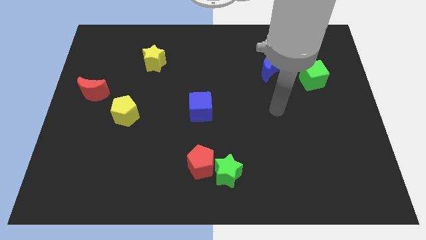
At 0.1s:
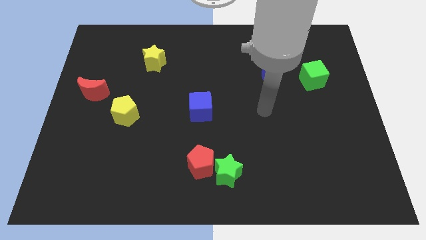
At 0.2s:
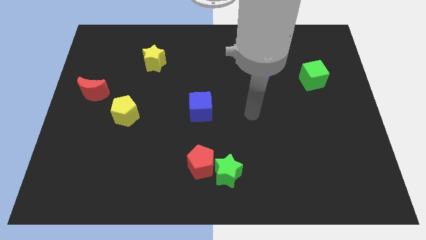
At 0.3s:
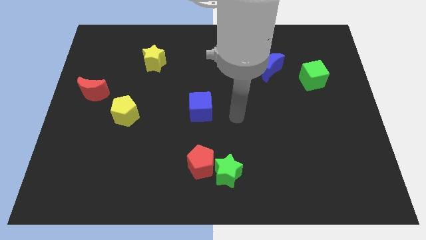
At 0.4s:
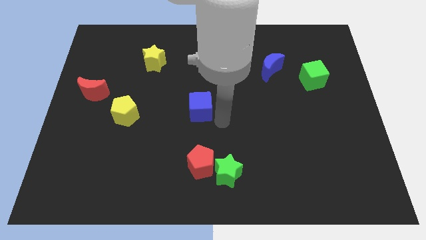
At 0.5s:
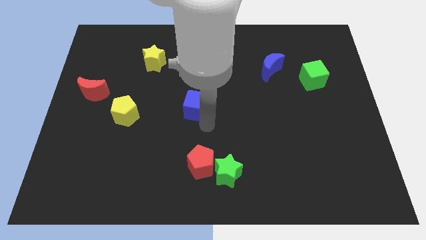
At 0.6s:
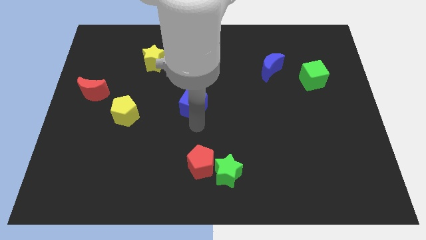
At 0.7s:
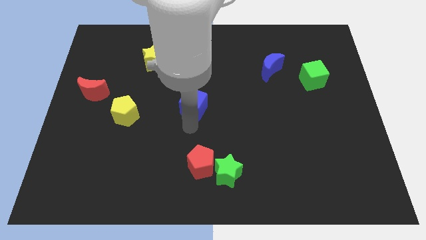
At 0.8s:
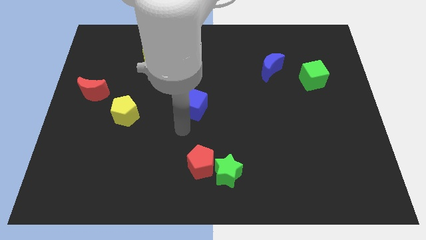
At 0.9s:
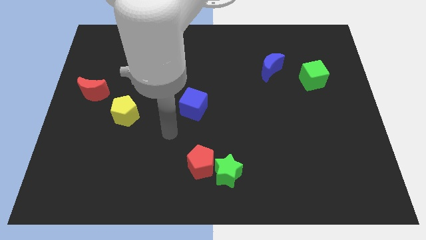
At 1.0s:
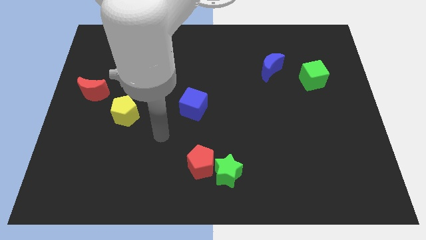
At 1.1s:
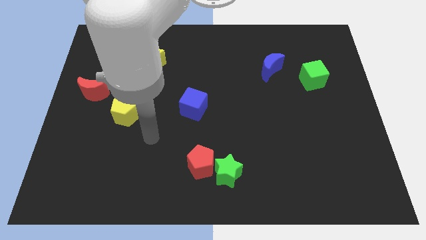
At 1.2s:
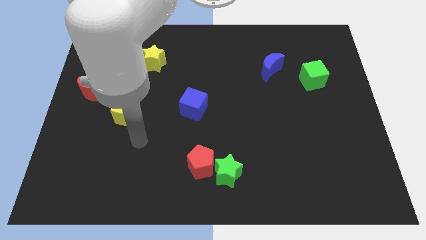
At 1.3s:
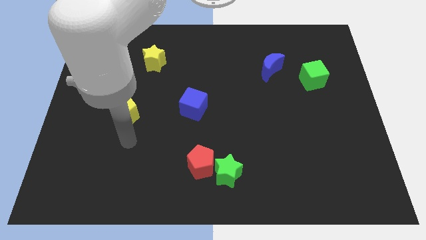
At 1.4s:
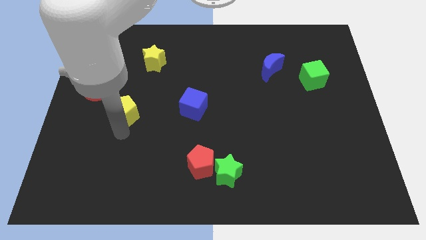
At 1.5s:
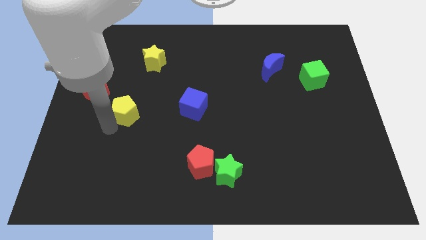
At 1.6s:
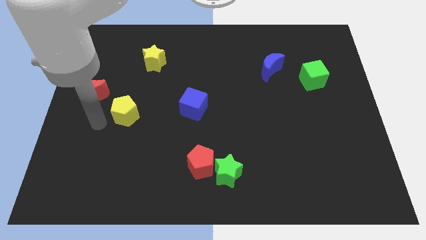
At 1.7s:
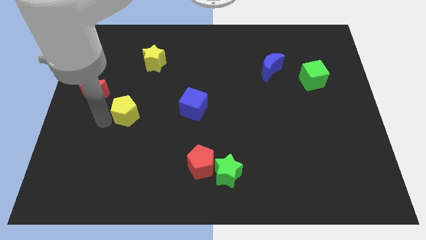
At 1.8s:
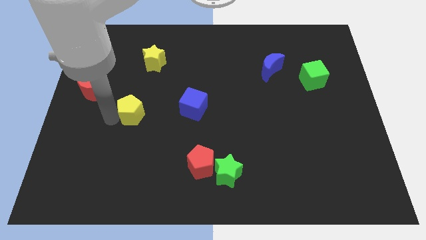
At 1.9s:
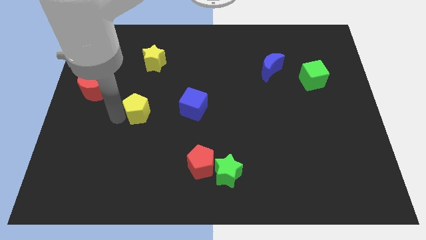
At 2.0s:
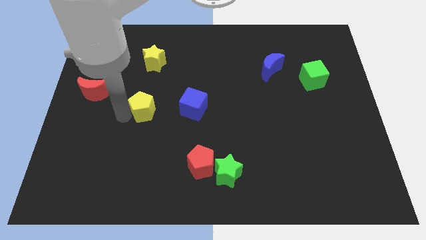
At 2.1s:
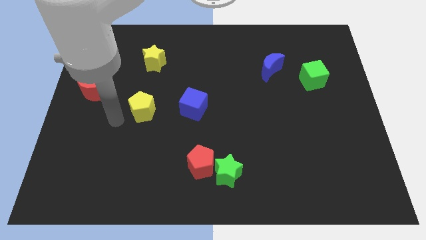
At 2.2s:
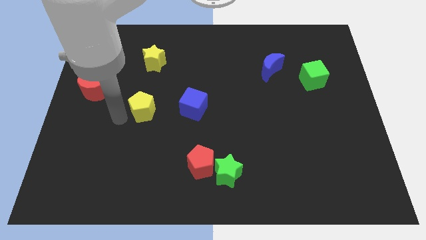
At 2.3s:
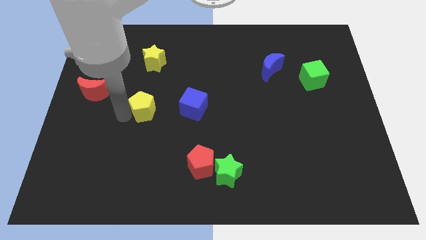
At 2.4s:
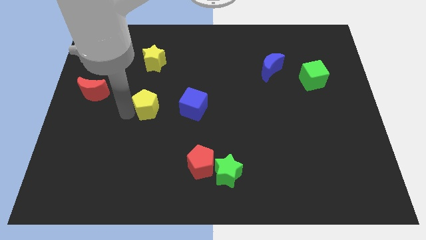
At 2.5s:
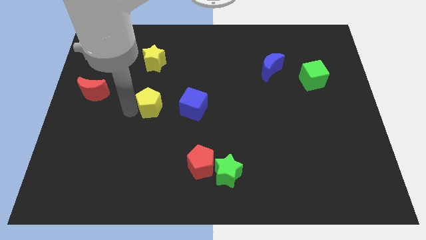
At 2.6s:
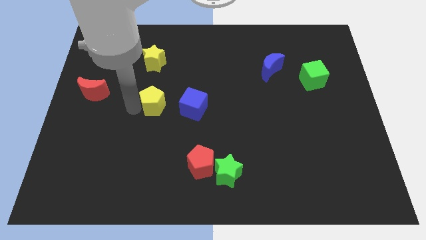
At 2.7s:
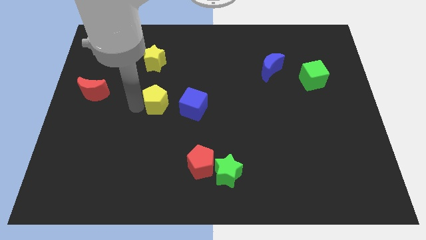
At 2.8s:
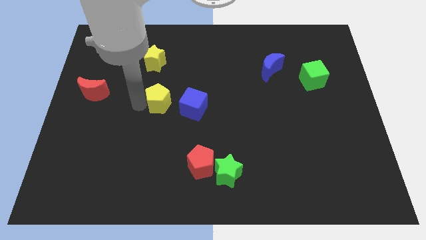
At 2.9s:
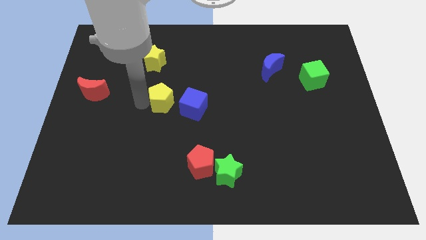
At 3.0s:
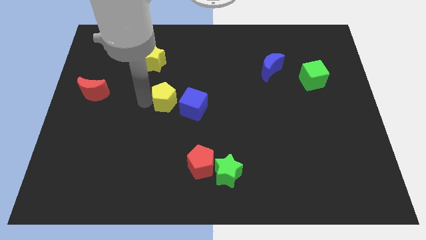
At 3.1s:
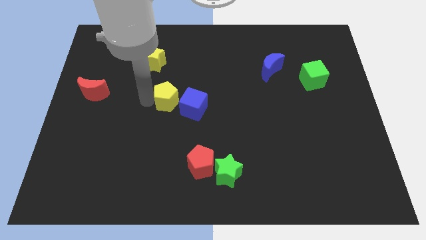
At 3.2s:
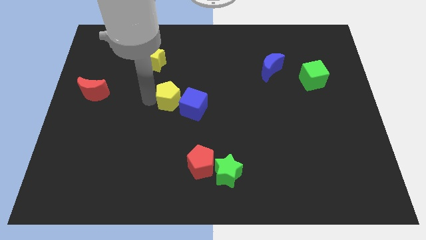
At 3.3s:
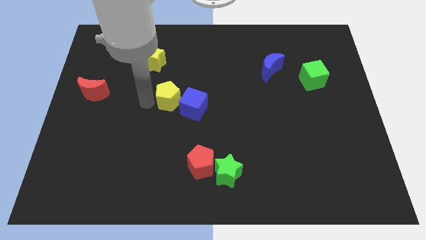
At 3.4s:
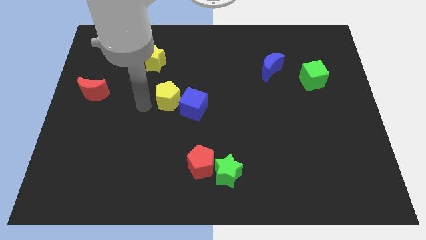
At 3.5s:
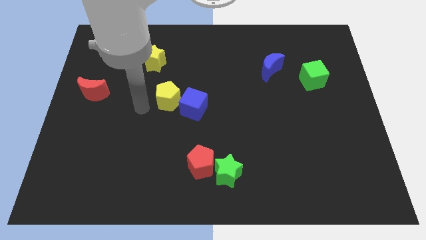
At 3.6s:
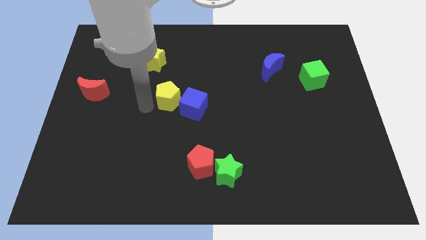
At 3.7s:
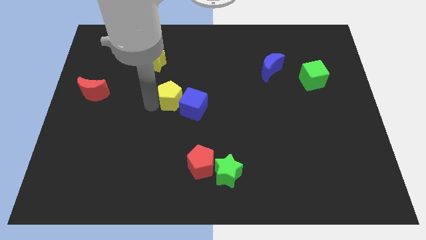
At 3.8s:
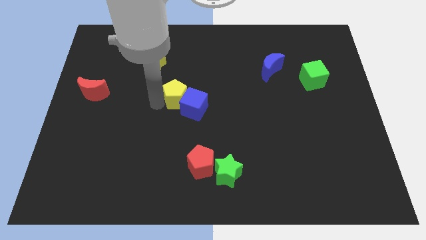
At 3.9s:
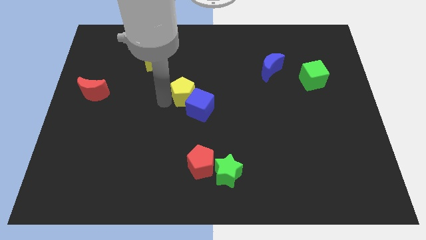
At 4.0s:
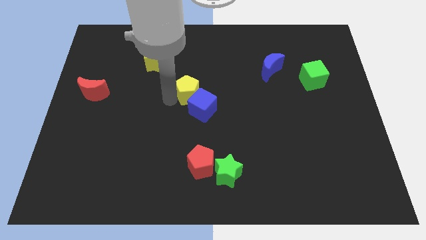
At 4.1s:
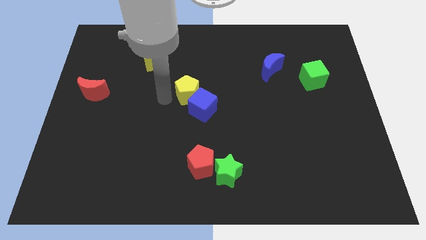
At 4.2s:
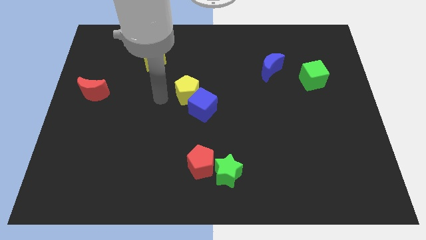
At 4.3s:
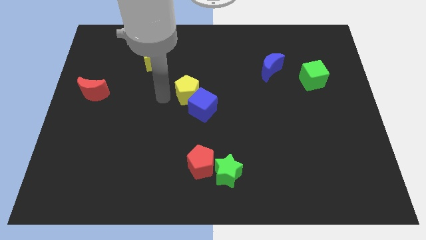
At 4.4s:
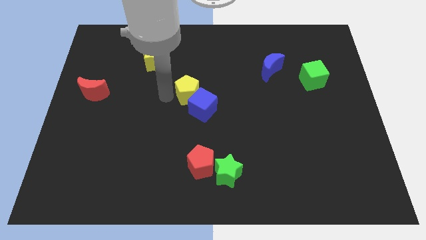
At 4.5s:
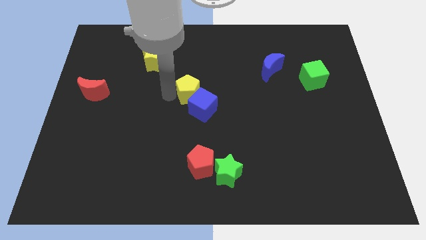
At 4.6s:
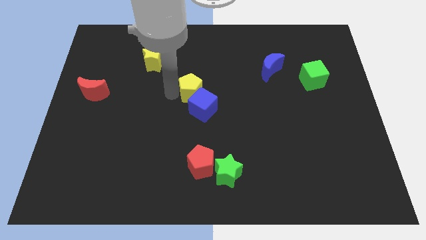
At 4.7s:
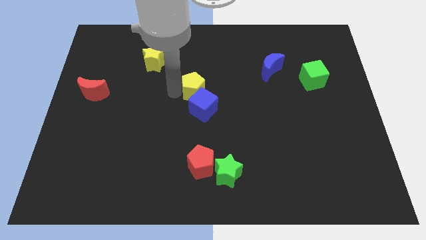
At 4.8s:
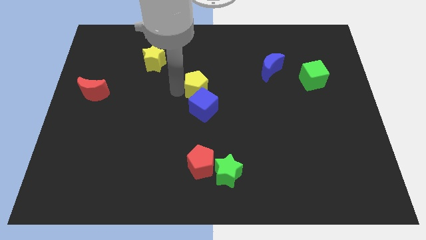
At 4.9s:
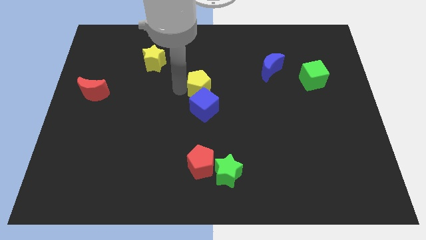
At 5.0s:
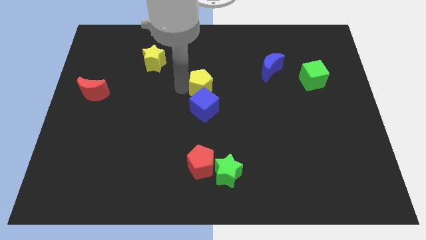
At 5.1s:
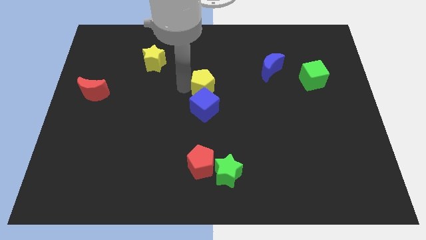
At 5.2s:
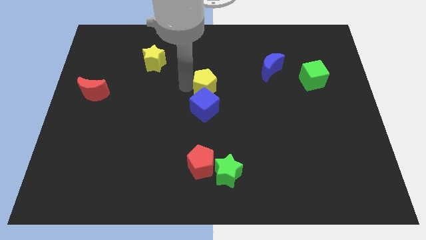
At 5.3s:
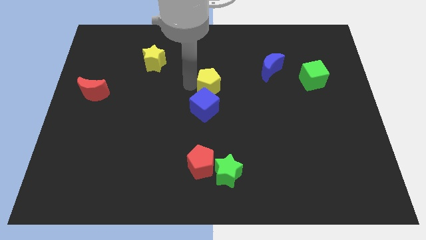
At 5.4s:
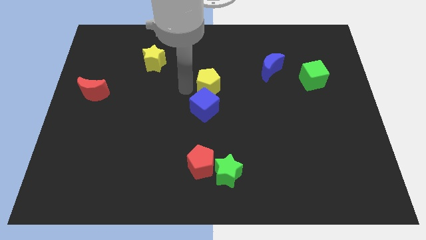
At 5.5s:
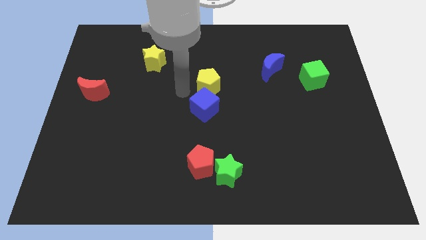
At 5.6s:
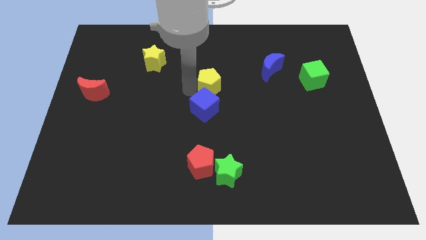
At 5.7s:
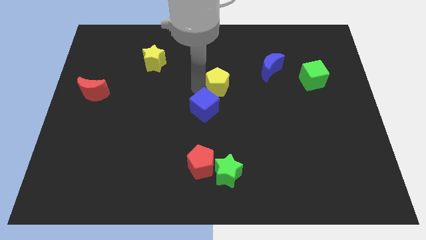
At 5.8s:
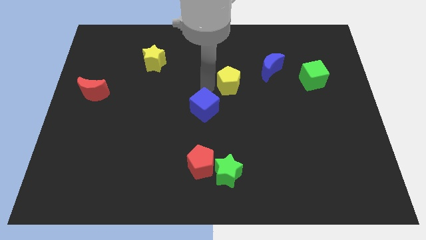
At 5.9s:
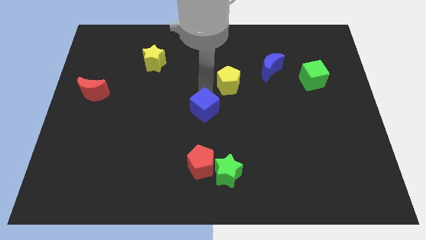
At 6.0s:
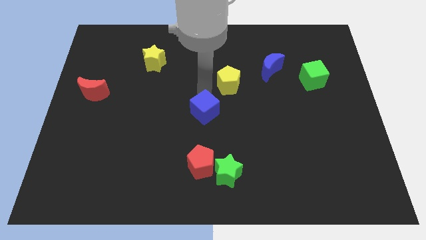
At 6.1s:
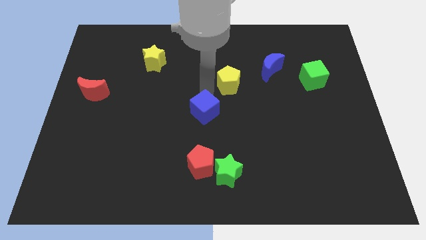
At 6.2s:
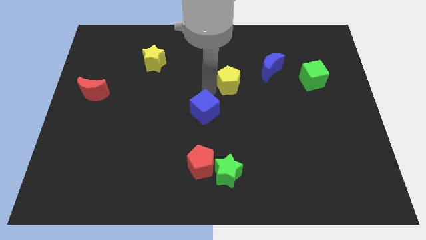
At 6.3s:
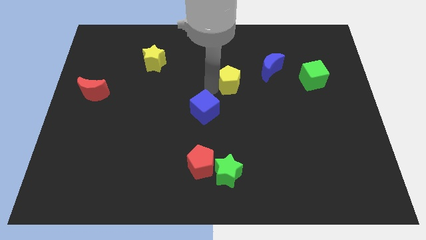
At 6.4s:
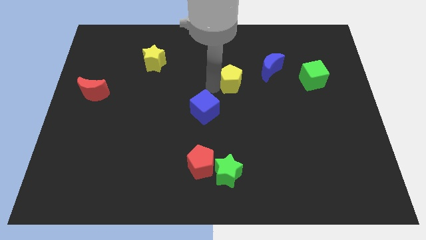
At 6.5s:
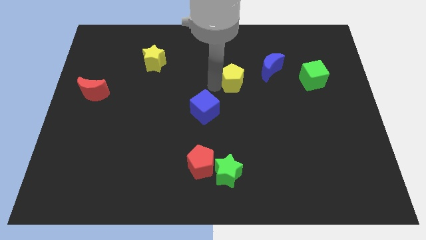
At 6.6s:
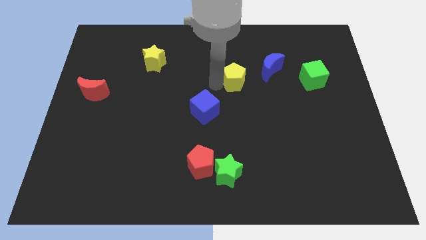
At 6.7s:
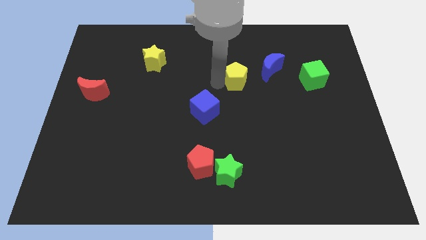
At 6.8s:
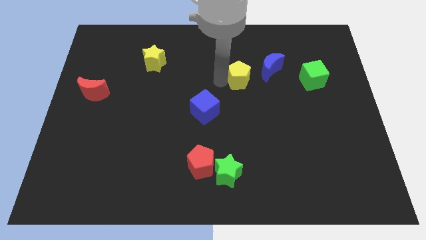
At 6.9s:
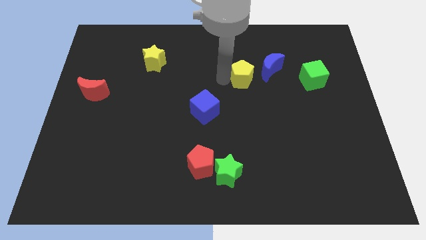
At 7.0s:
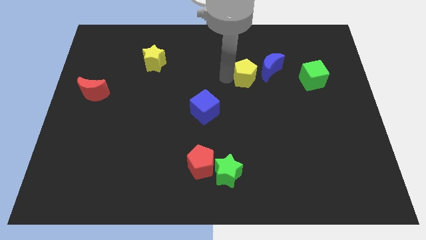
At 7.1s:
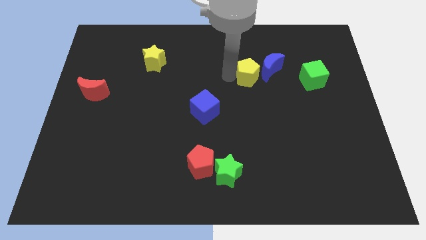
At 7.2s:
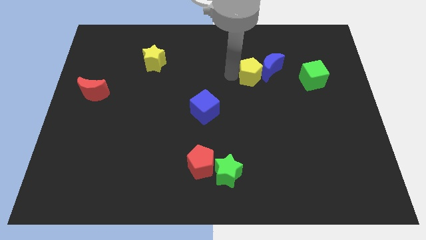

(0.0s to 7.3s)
slide the yellow pentagon towards the blue moon

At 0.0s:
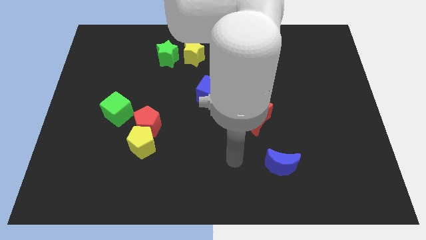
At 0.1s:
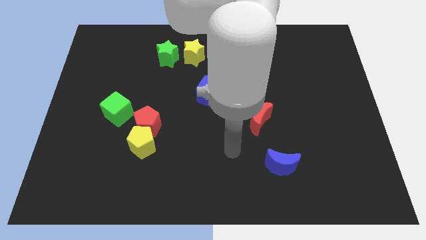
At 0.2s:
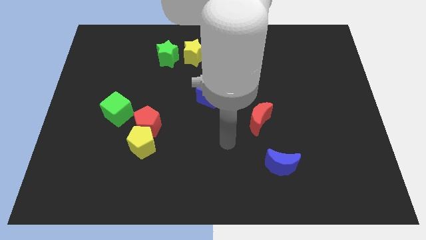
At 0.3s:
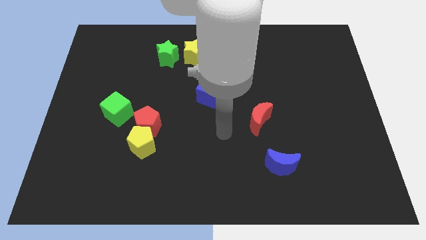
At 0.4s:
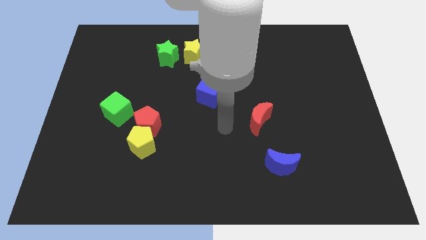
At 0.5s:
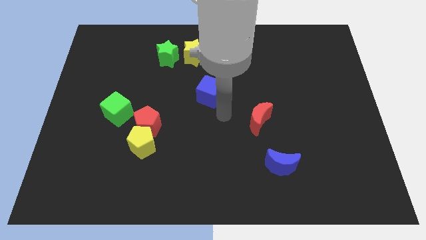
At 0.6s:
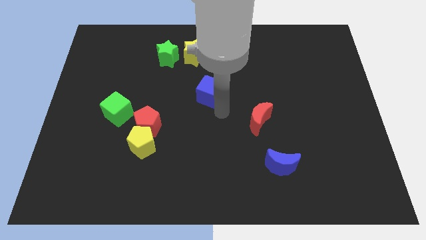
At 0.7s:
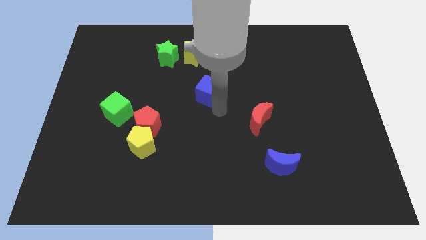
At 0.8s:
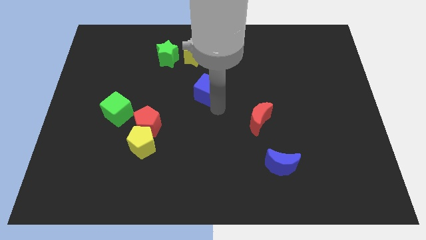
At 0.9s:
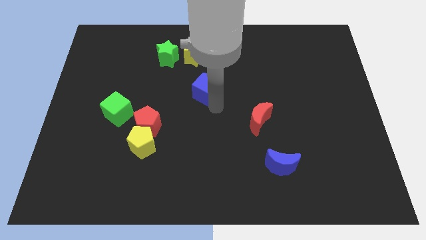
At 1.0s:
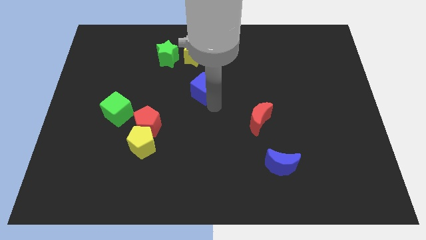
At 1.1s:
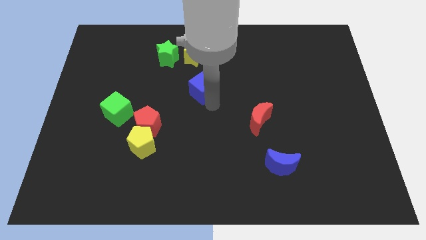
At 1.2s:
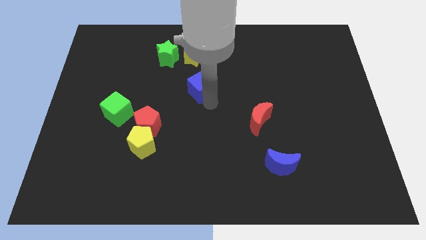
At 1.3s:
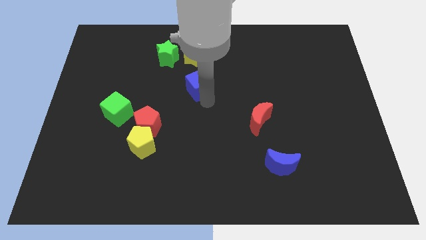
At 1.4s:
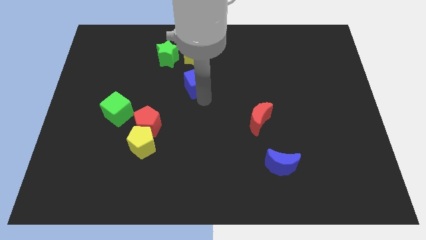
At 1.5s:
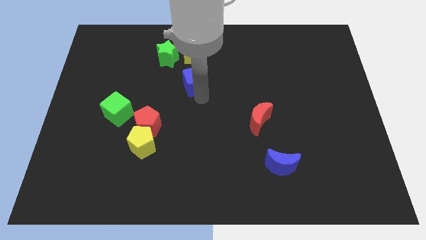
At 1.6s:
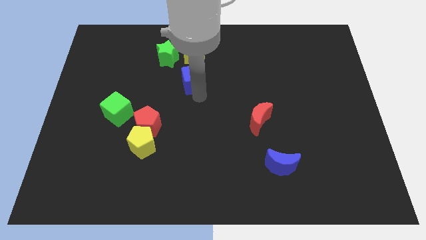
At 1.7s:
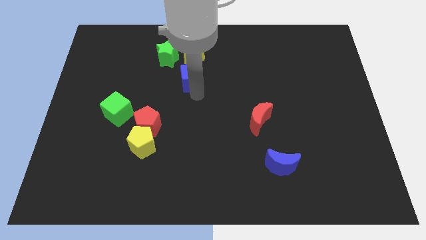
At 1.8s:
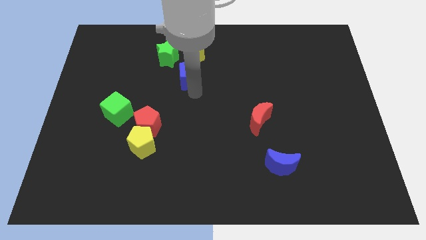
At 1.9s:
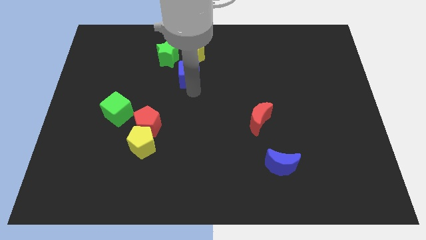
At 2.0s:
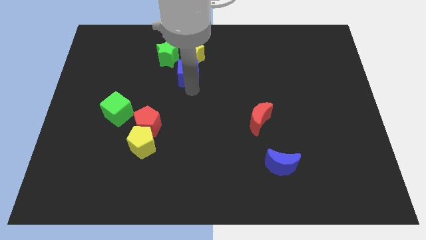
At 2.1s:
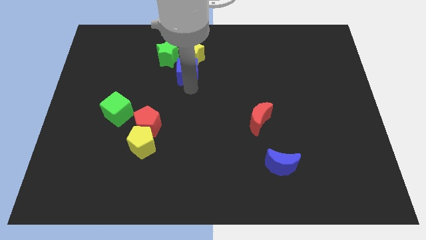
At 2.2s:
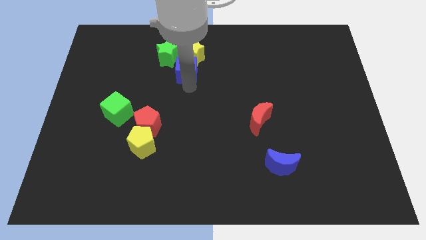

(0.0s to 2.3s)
slide the blue cube towards the yellow star
